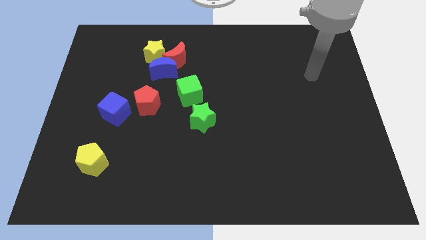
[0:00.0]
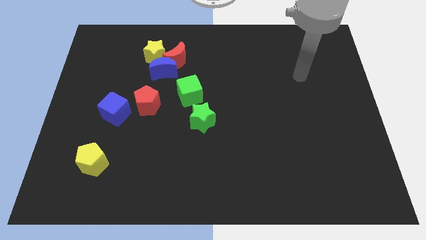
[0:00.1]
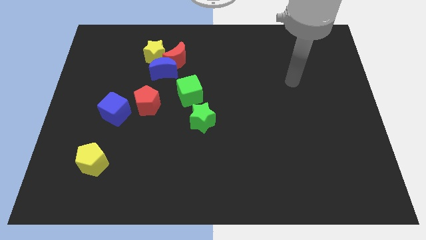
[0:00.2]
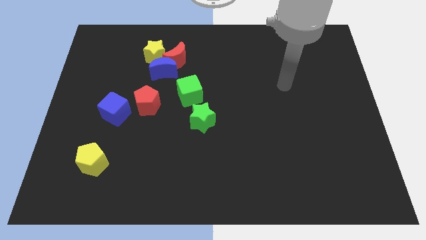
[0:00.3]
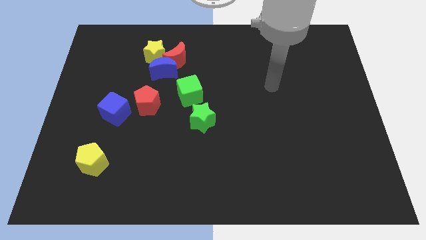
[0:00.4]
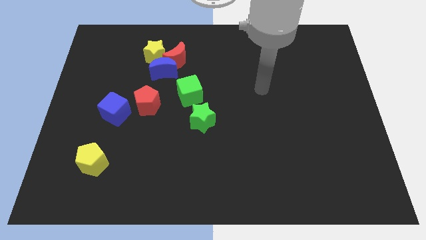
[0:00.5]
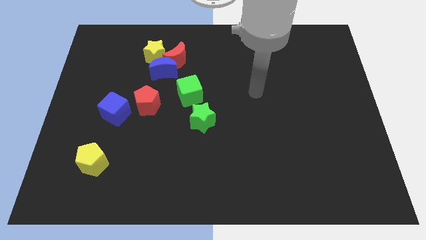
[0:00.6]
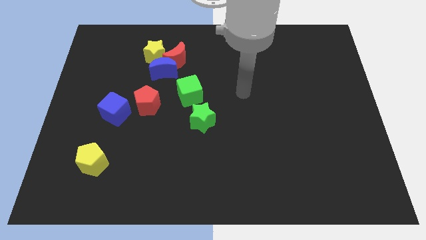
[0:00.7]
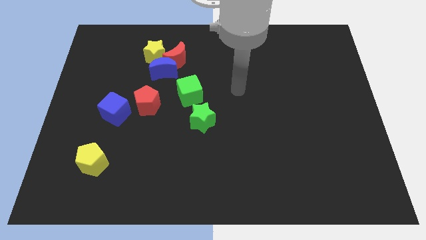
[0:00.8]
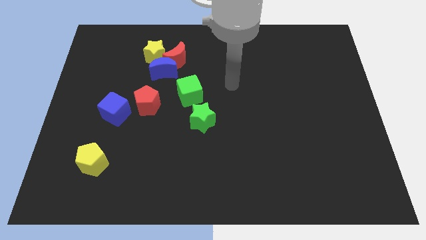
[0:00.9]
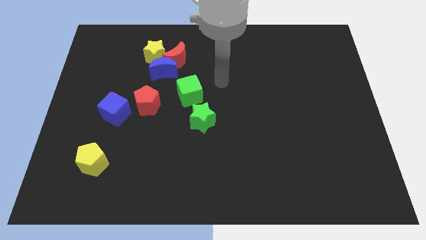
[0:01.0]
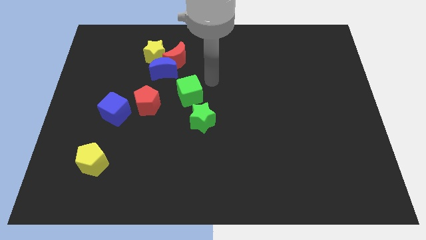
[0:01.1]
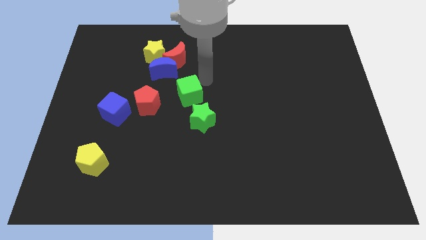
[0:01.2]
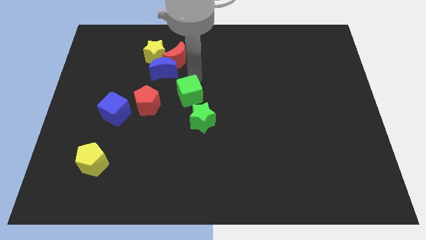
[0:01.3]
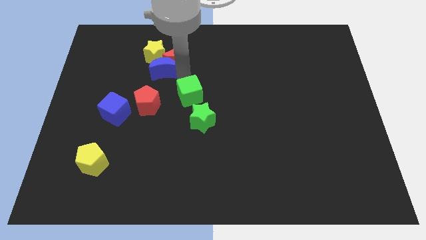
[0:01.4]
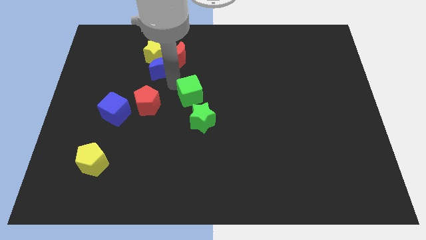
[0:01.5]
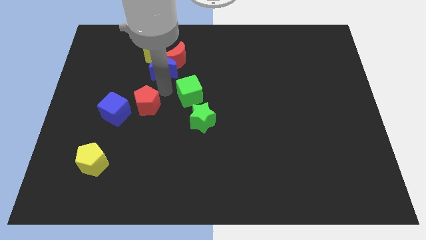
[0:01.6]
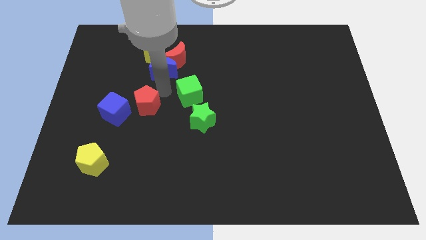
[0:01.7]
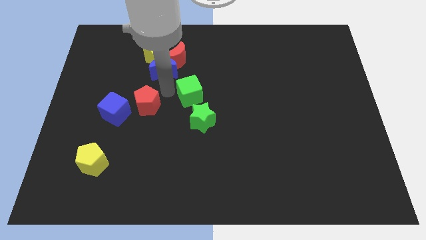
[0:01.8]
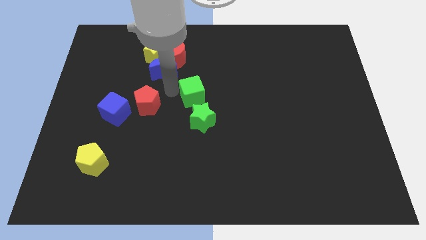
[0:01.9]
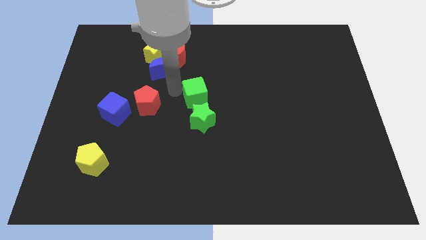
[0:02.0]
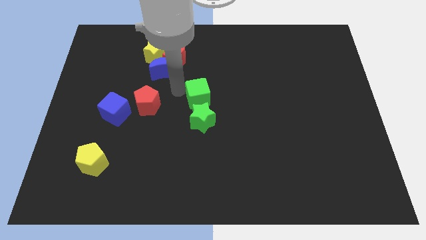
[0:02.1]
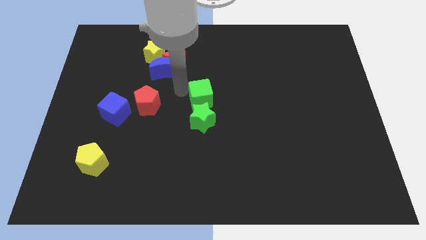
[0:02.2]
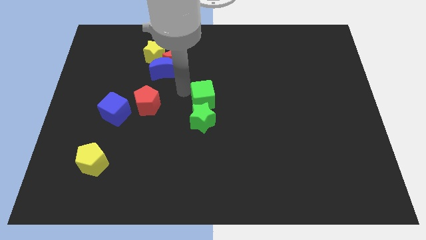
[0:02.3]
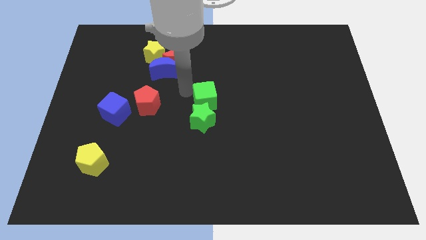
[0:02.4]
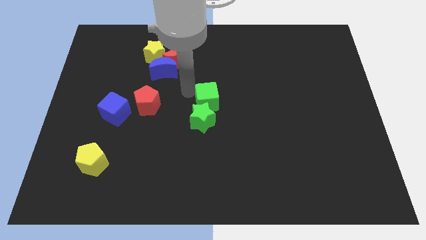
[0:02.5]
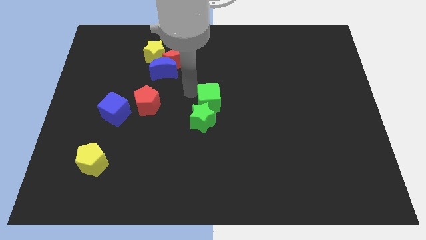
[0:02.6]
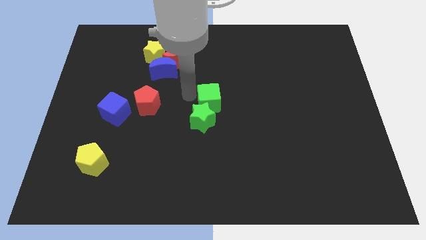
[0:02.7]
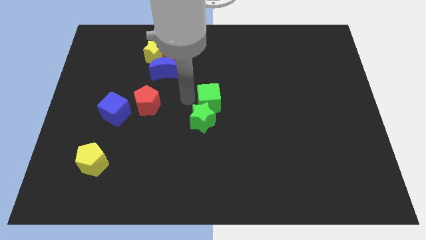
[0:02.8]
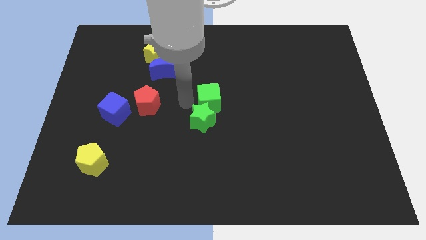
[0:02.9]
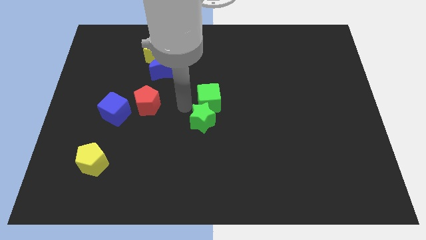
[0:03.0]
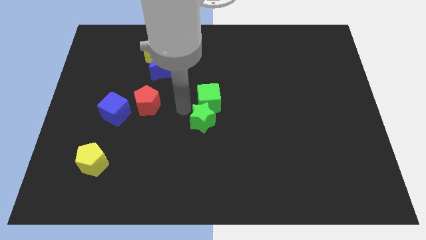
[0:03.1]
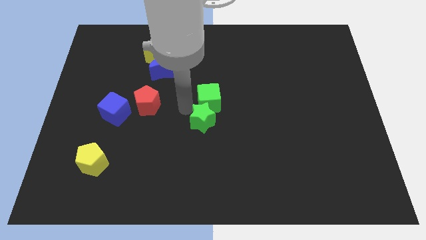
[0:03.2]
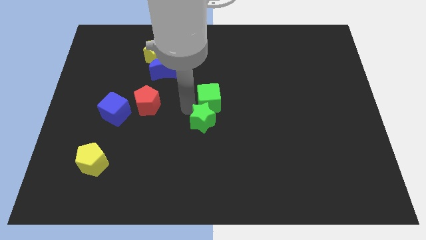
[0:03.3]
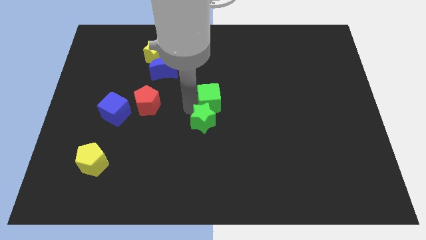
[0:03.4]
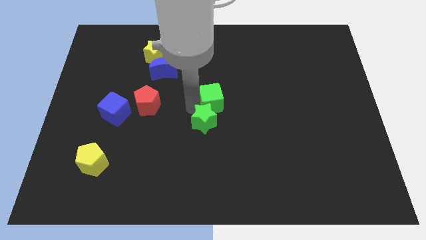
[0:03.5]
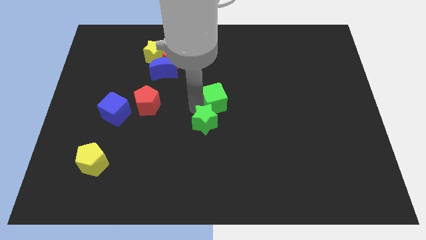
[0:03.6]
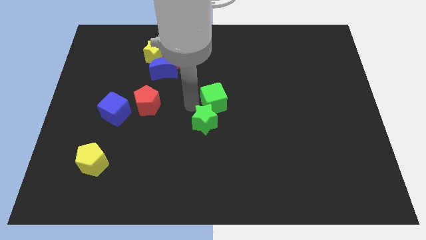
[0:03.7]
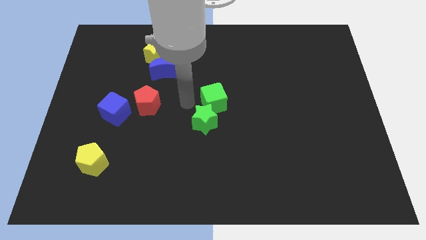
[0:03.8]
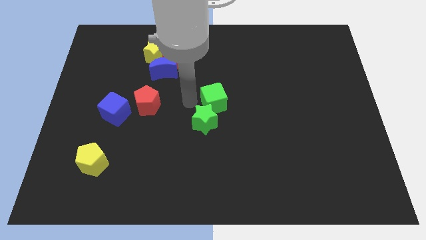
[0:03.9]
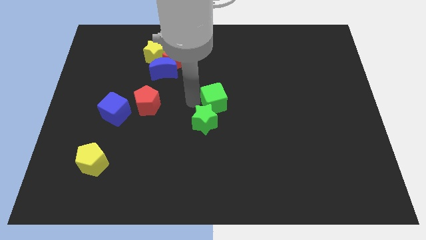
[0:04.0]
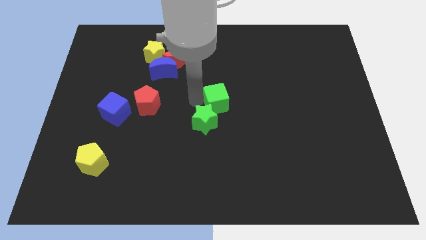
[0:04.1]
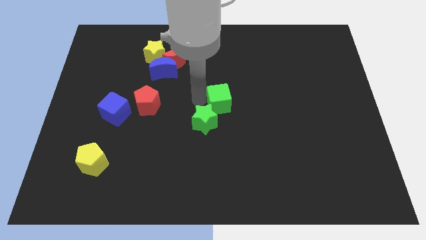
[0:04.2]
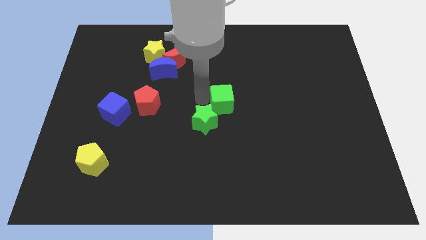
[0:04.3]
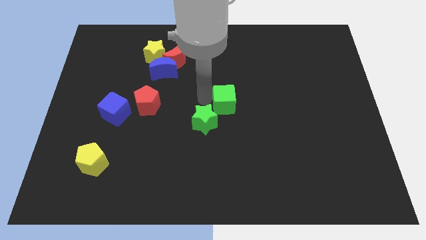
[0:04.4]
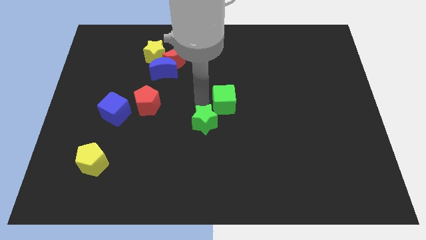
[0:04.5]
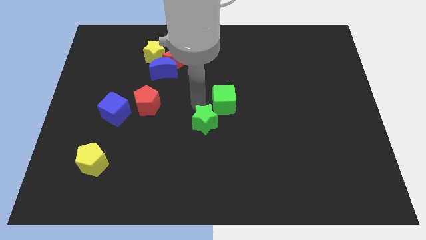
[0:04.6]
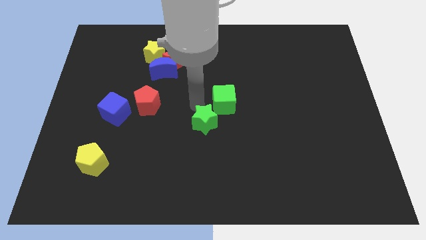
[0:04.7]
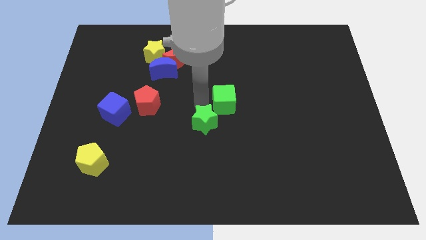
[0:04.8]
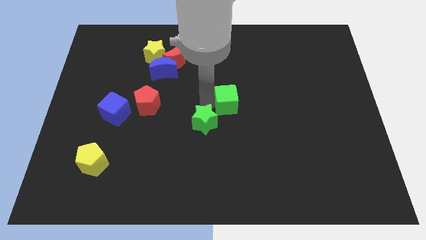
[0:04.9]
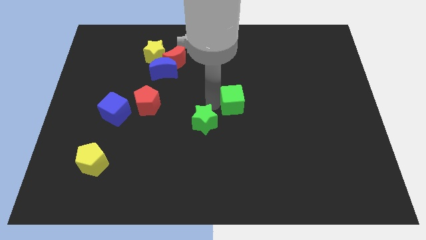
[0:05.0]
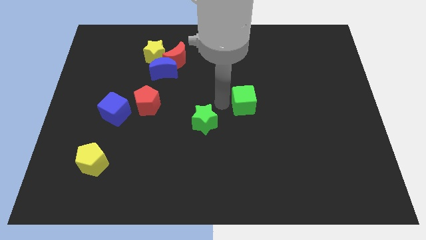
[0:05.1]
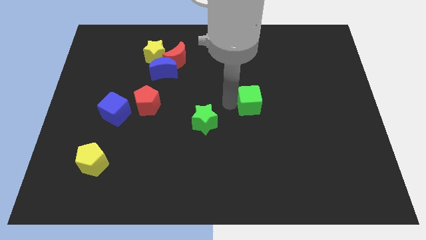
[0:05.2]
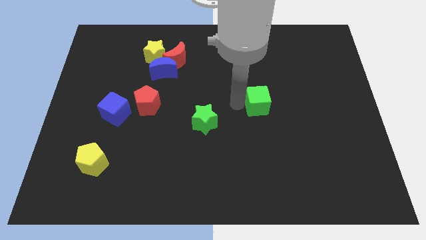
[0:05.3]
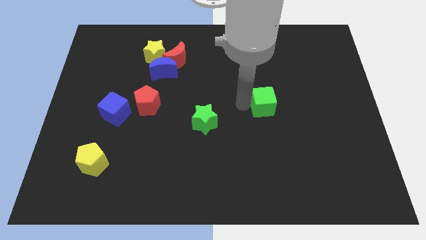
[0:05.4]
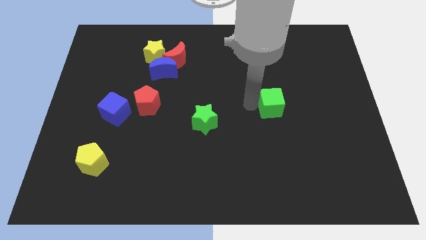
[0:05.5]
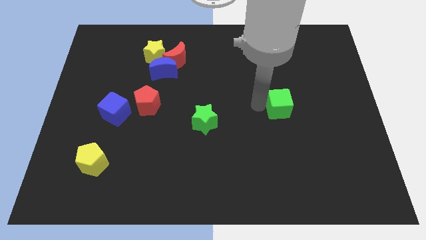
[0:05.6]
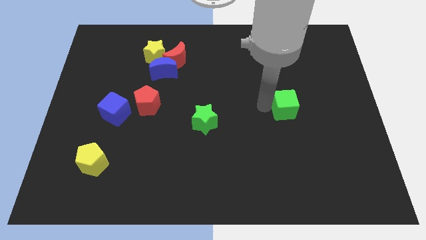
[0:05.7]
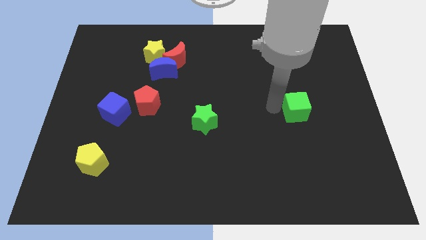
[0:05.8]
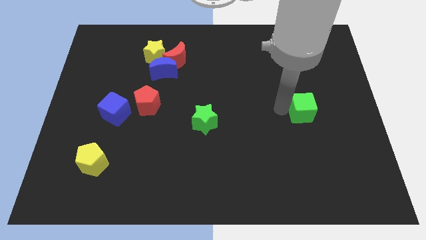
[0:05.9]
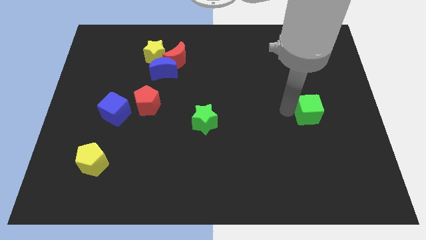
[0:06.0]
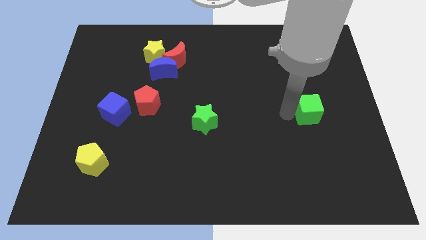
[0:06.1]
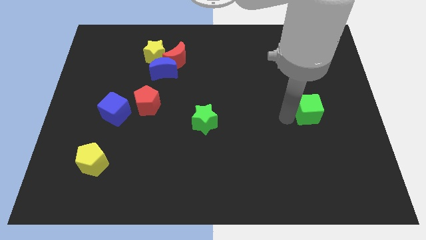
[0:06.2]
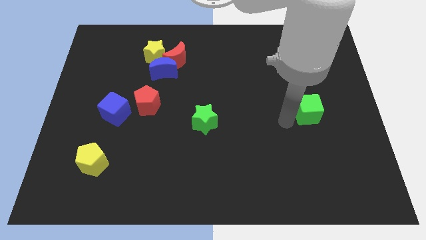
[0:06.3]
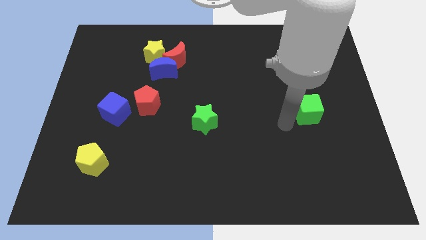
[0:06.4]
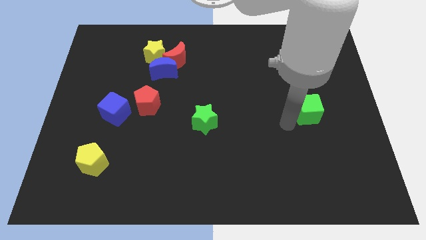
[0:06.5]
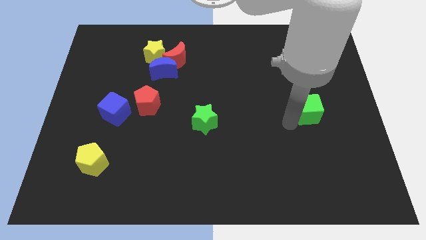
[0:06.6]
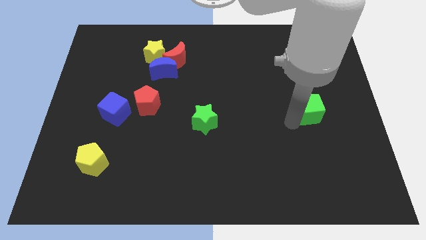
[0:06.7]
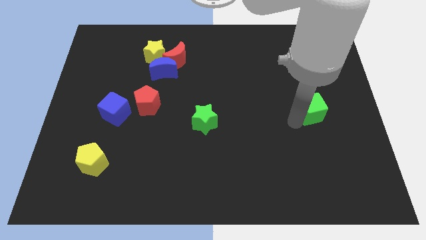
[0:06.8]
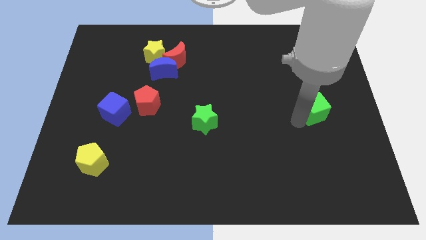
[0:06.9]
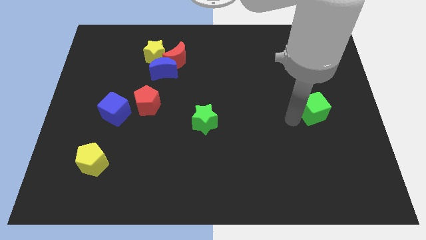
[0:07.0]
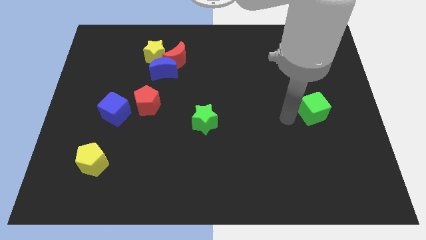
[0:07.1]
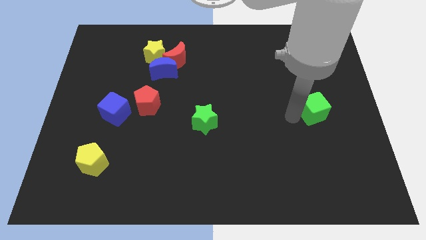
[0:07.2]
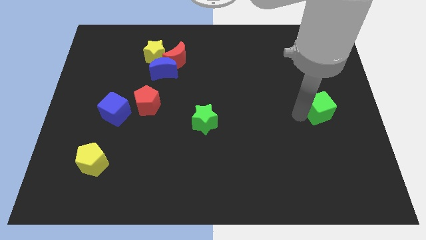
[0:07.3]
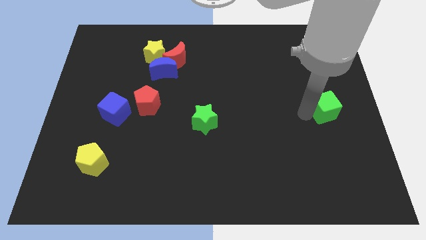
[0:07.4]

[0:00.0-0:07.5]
move the green cube to the right side
